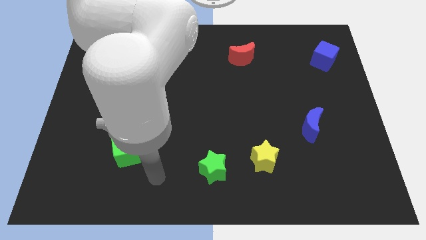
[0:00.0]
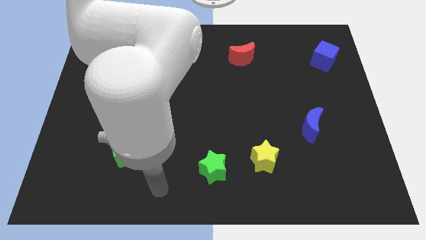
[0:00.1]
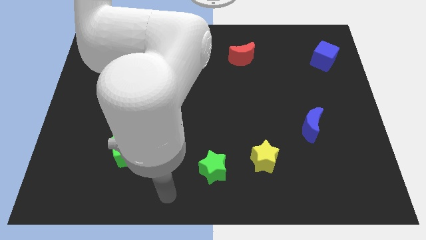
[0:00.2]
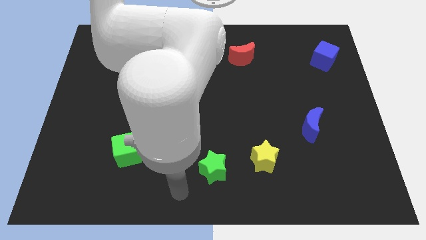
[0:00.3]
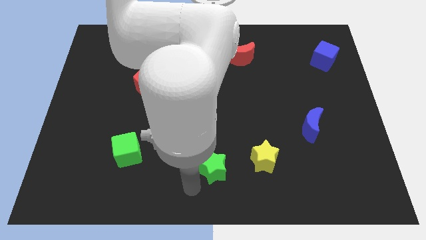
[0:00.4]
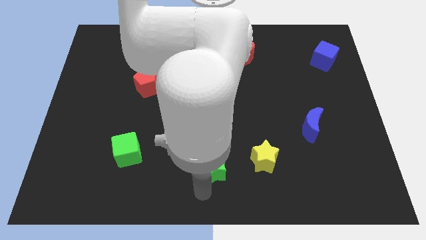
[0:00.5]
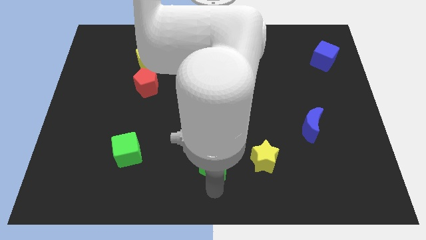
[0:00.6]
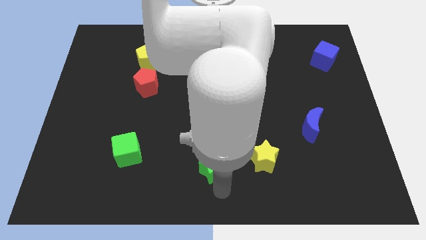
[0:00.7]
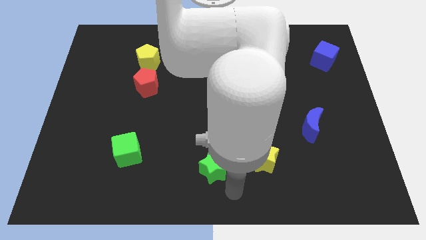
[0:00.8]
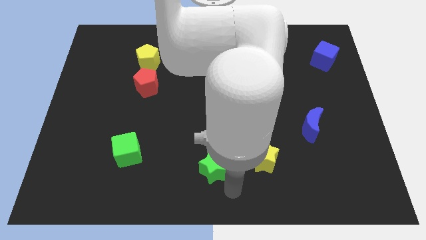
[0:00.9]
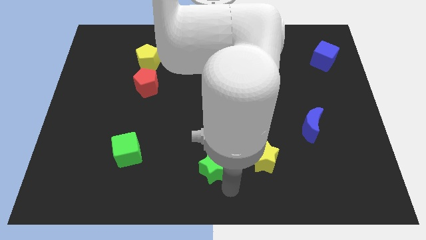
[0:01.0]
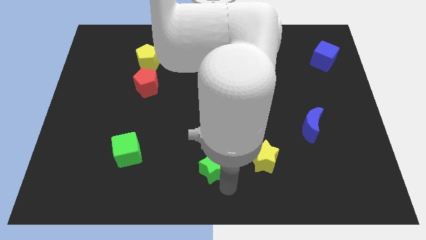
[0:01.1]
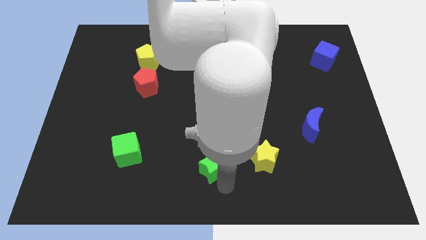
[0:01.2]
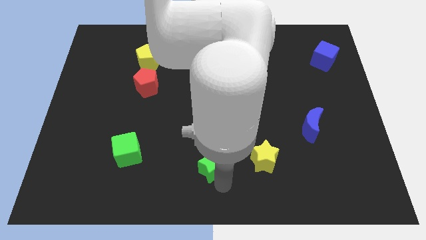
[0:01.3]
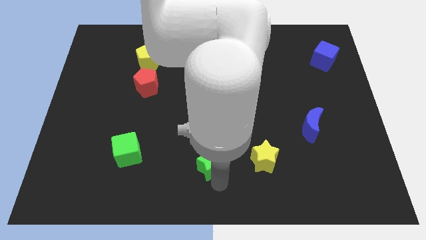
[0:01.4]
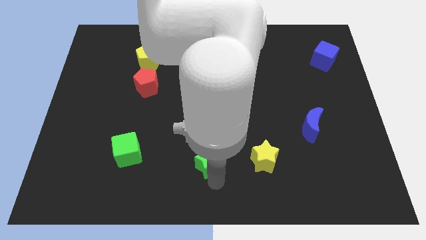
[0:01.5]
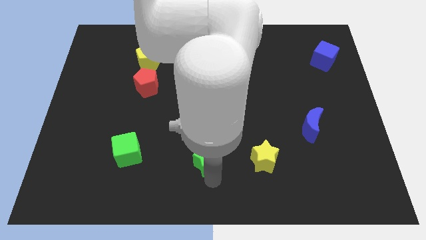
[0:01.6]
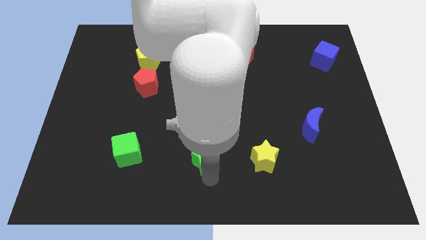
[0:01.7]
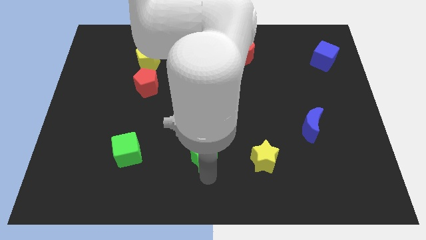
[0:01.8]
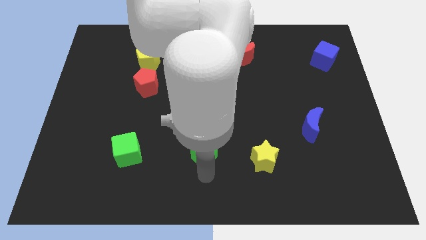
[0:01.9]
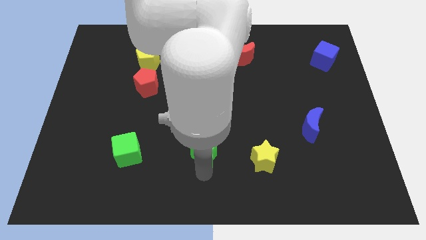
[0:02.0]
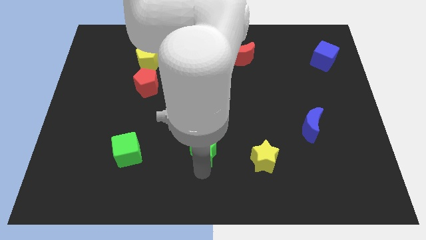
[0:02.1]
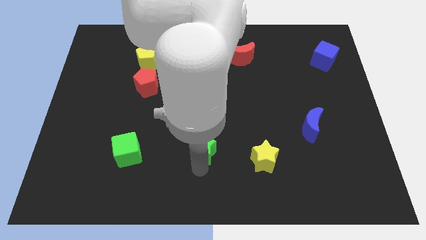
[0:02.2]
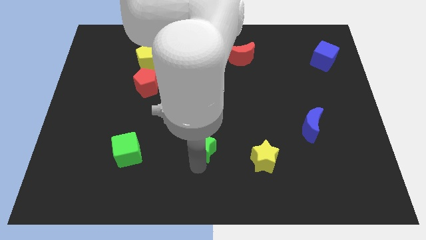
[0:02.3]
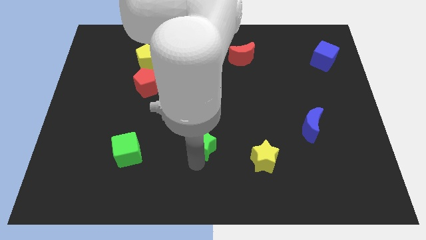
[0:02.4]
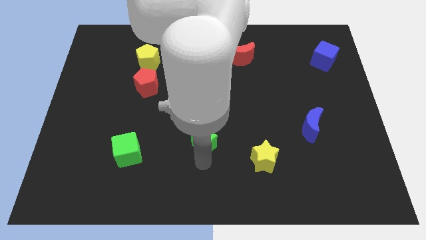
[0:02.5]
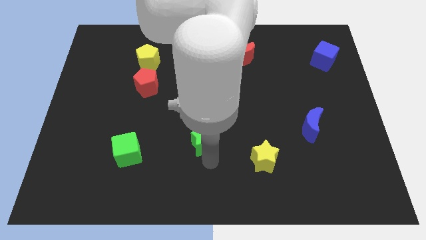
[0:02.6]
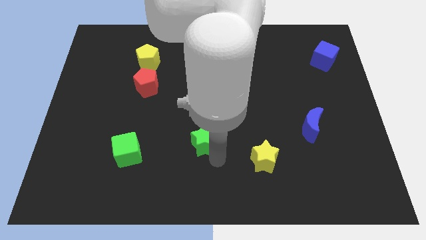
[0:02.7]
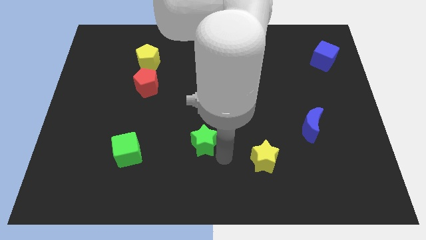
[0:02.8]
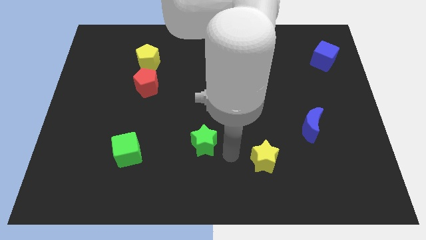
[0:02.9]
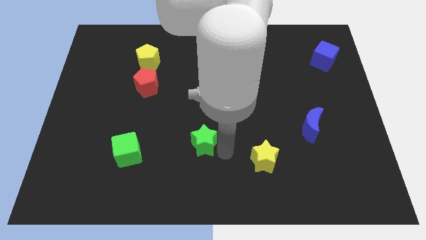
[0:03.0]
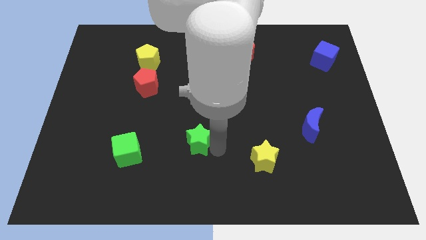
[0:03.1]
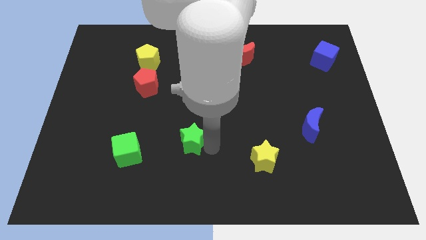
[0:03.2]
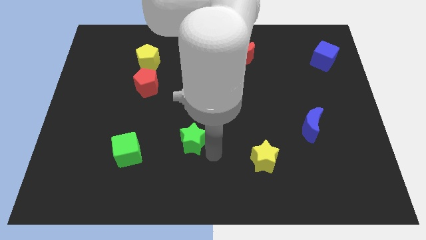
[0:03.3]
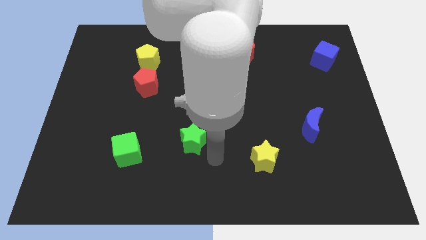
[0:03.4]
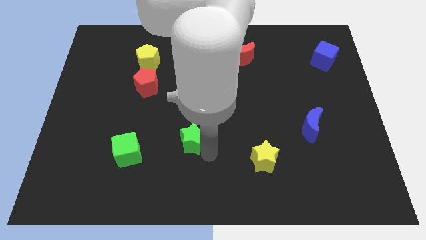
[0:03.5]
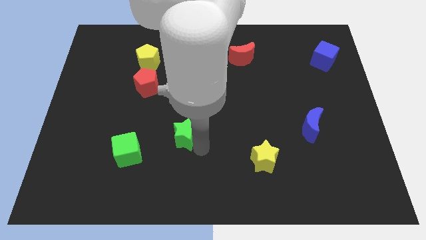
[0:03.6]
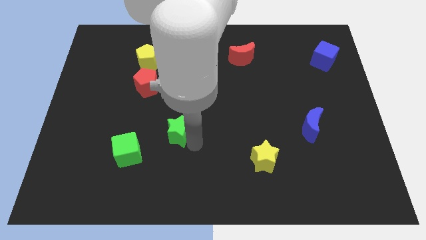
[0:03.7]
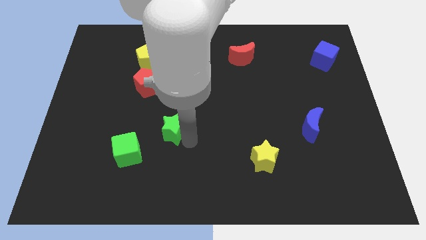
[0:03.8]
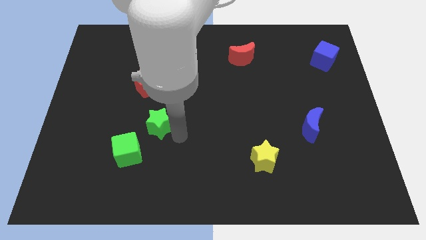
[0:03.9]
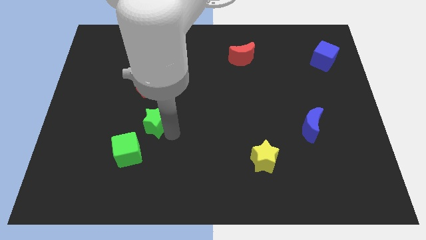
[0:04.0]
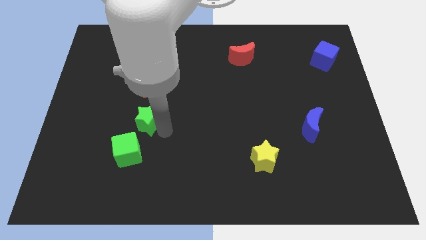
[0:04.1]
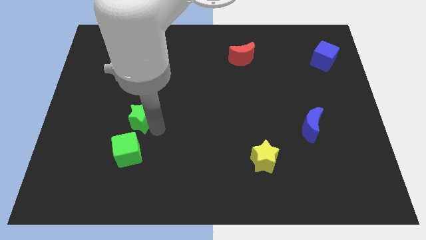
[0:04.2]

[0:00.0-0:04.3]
move the green star up and to the left diagonally

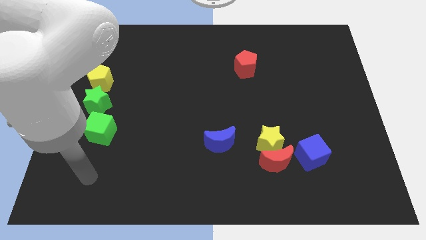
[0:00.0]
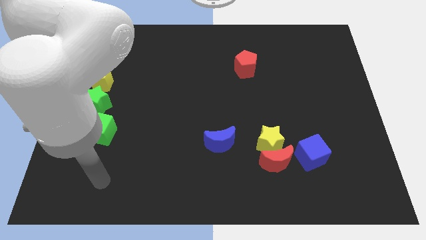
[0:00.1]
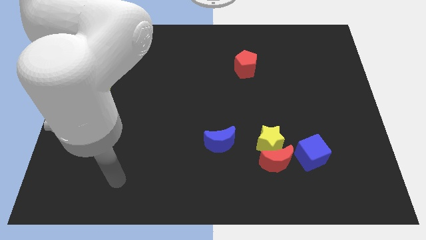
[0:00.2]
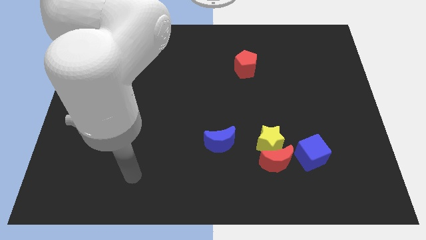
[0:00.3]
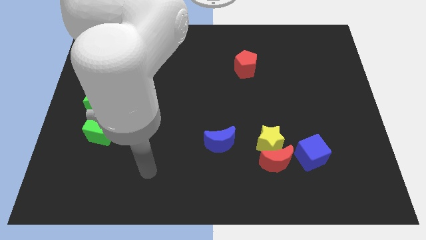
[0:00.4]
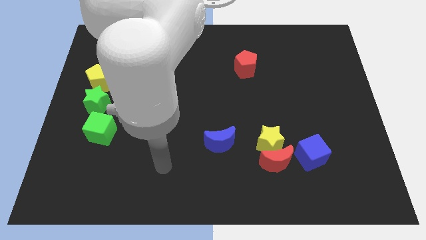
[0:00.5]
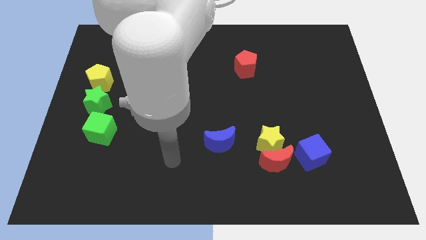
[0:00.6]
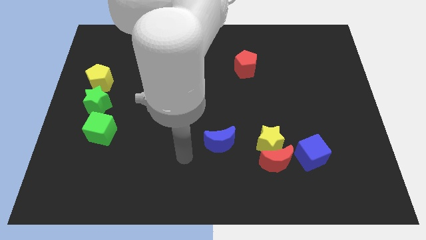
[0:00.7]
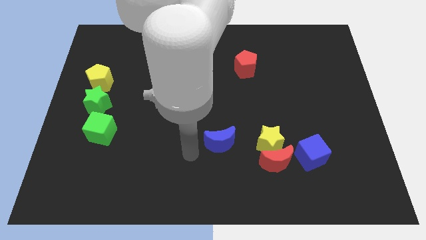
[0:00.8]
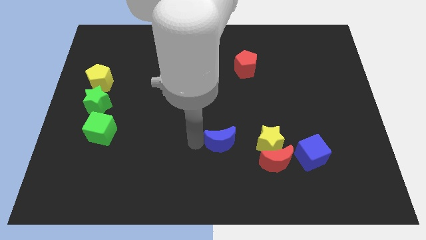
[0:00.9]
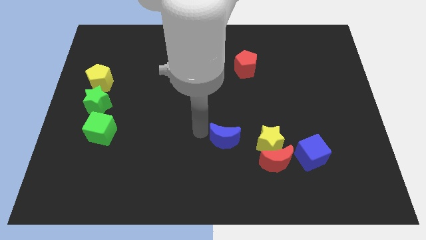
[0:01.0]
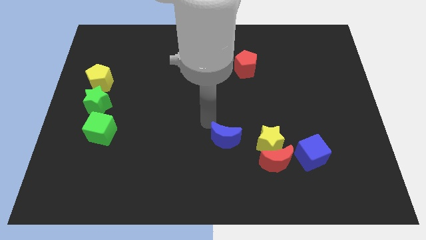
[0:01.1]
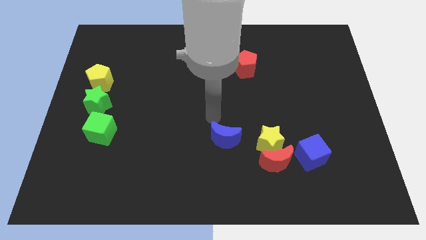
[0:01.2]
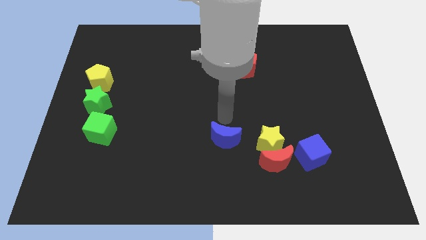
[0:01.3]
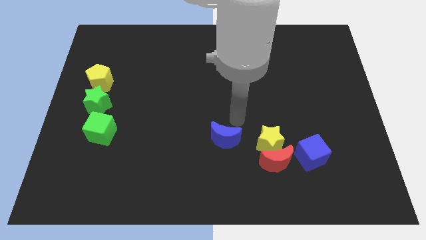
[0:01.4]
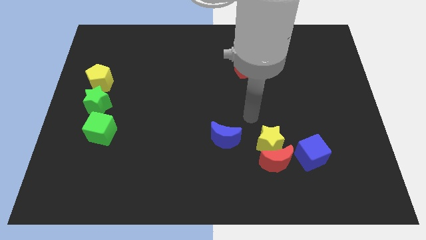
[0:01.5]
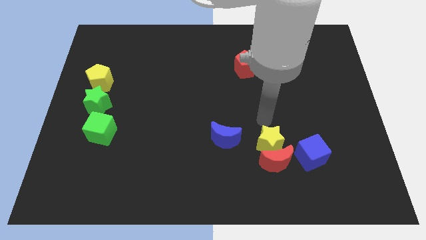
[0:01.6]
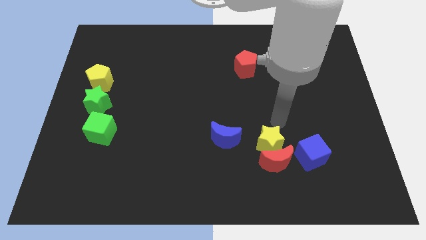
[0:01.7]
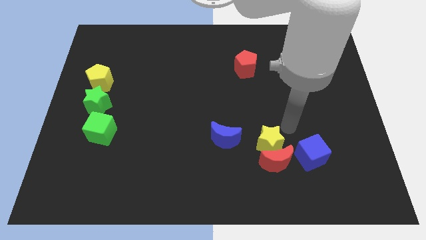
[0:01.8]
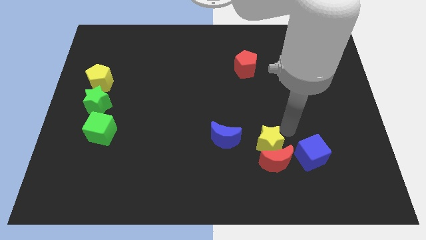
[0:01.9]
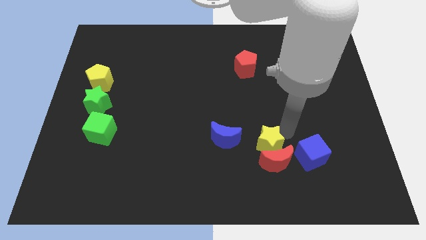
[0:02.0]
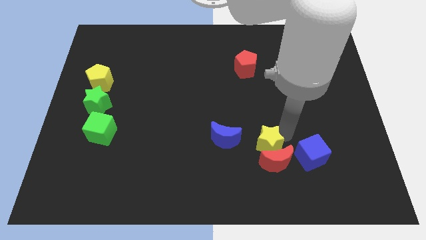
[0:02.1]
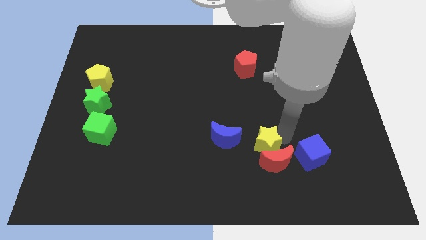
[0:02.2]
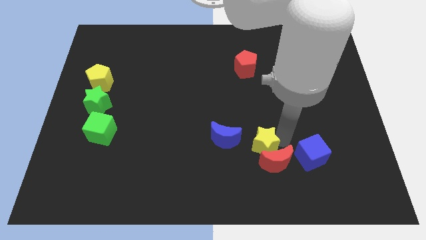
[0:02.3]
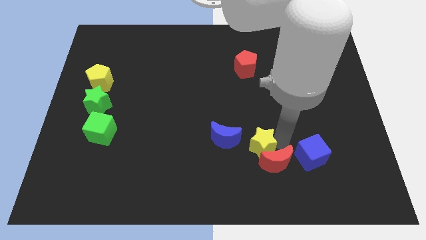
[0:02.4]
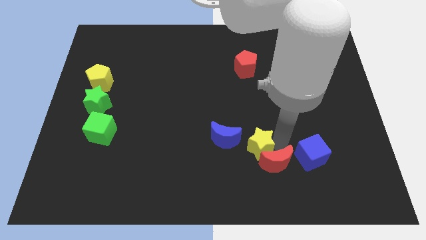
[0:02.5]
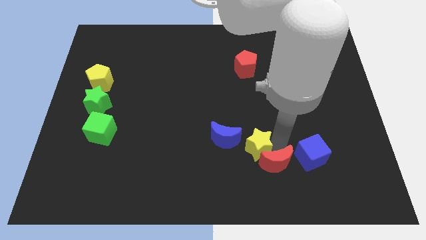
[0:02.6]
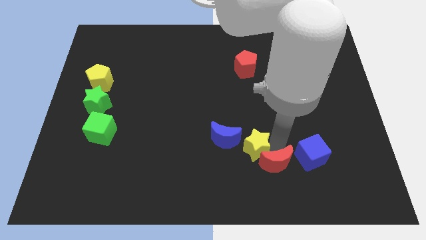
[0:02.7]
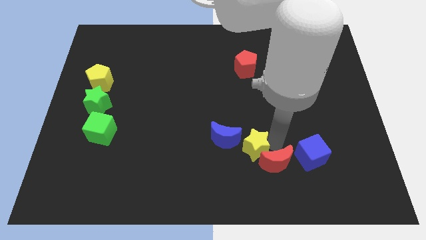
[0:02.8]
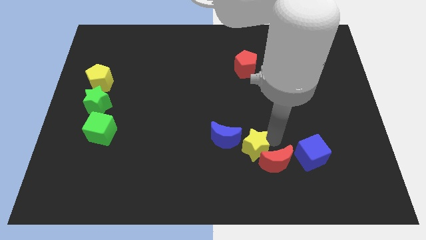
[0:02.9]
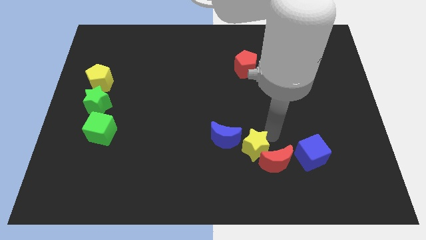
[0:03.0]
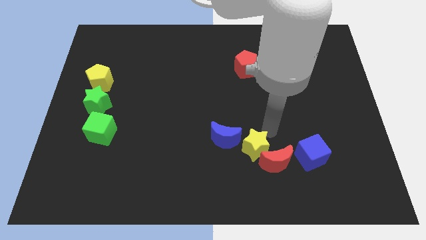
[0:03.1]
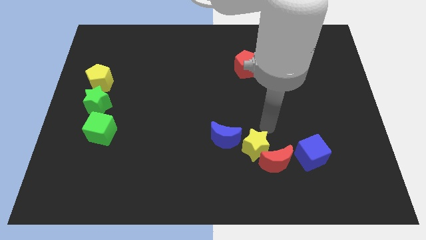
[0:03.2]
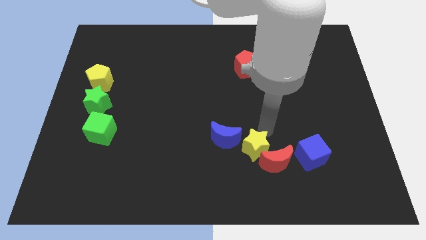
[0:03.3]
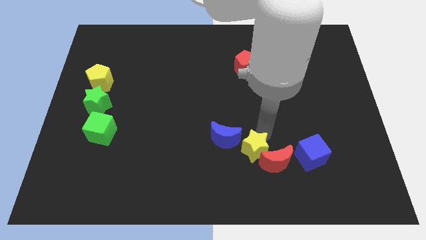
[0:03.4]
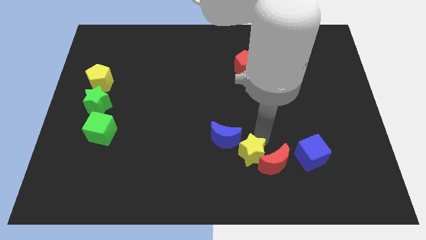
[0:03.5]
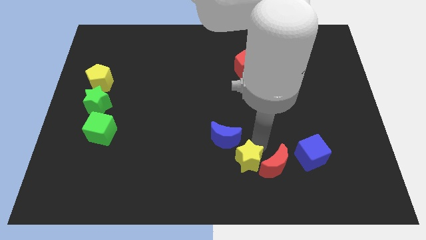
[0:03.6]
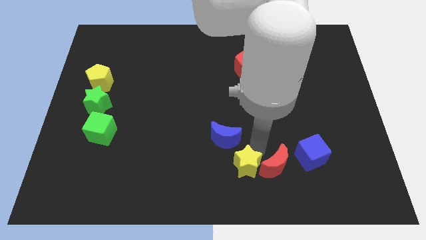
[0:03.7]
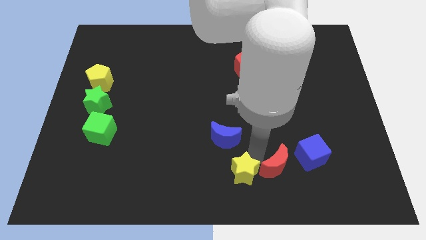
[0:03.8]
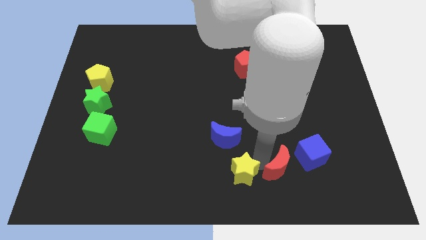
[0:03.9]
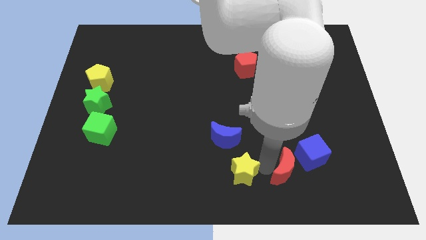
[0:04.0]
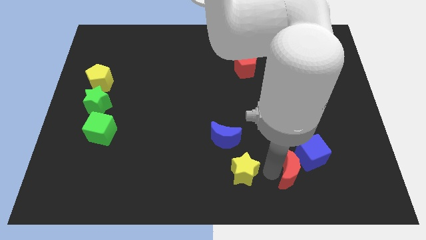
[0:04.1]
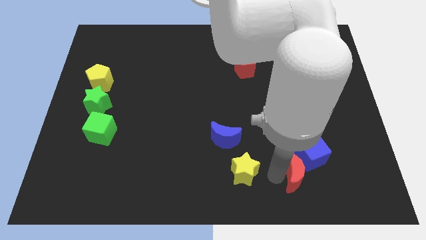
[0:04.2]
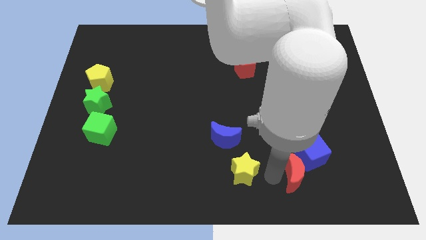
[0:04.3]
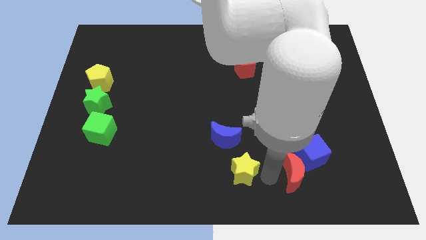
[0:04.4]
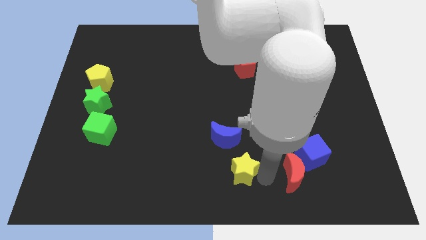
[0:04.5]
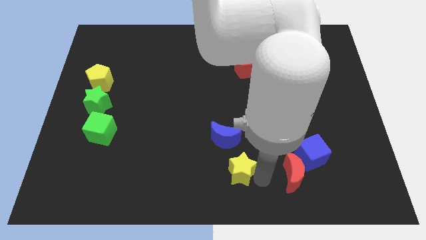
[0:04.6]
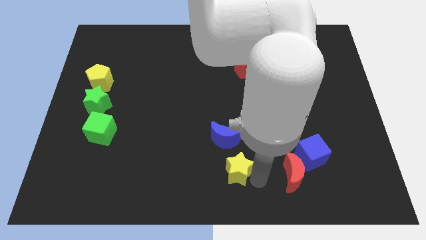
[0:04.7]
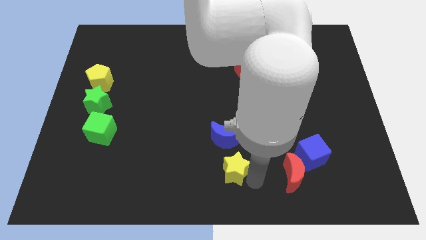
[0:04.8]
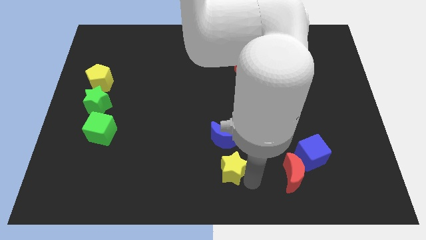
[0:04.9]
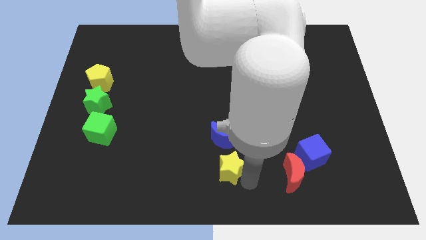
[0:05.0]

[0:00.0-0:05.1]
push the yellow star slightly left
